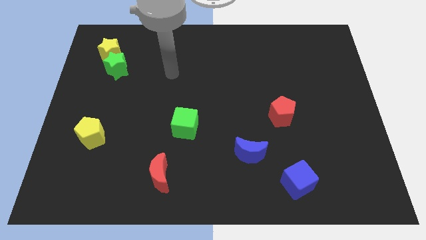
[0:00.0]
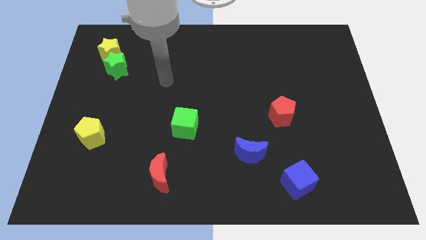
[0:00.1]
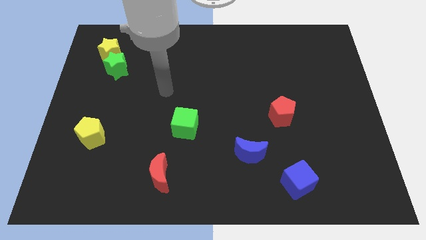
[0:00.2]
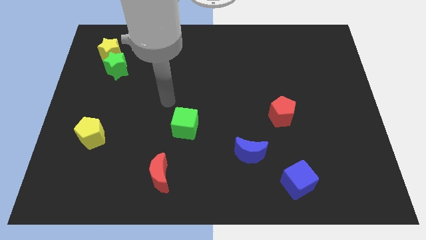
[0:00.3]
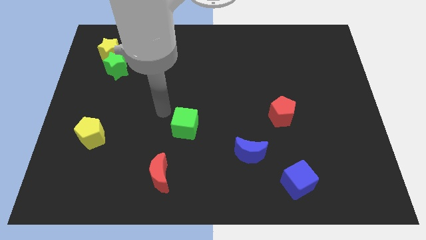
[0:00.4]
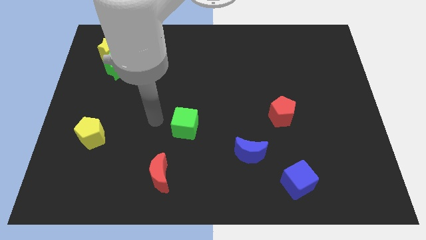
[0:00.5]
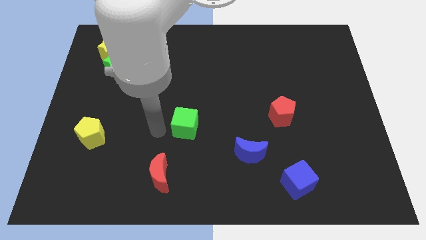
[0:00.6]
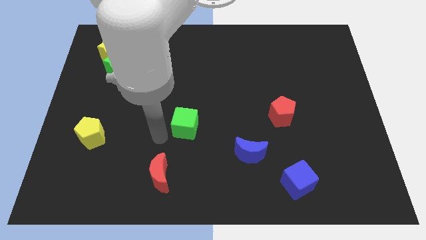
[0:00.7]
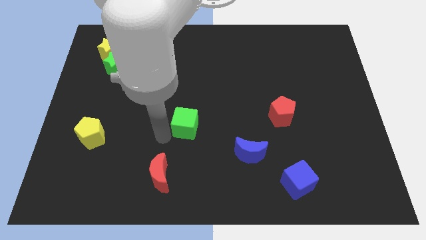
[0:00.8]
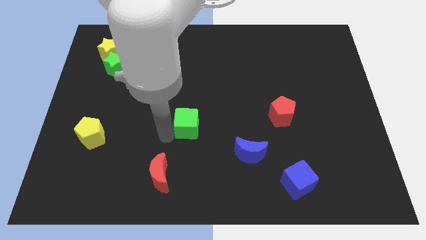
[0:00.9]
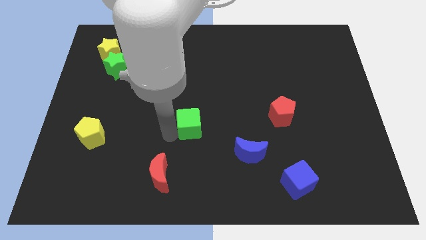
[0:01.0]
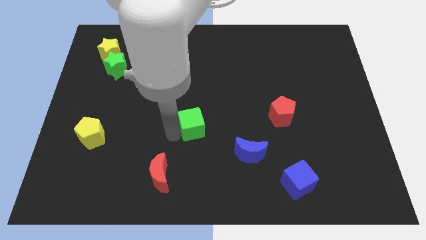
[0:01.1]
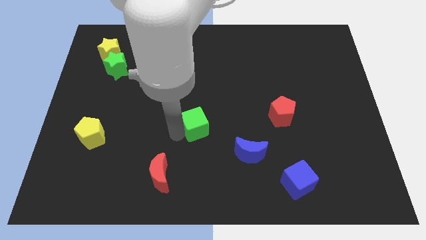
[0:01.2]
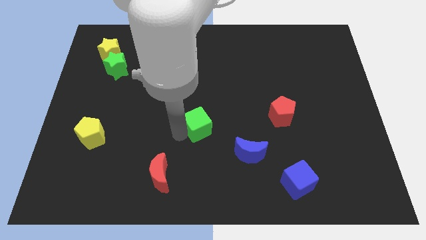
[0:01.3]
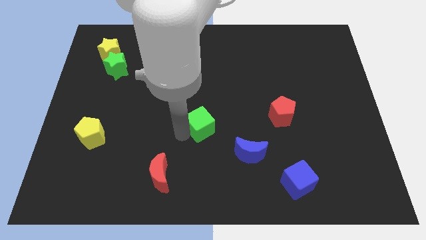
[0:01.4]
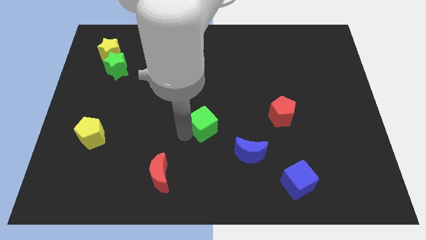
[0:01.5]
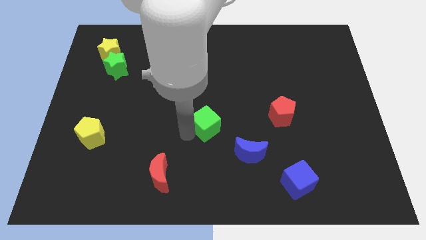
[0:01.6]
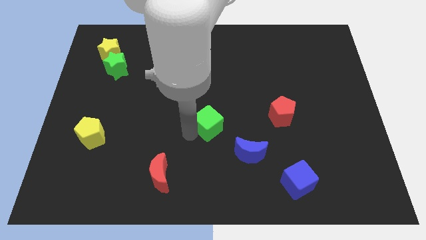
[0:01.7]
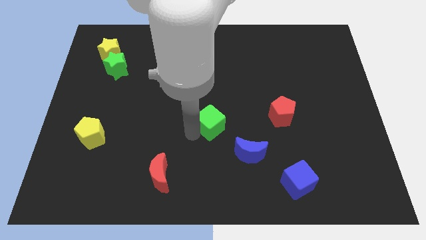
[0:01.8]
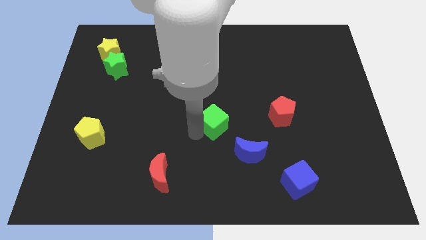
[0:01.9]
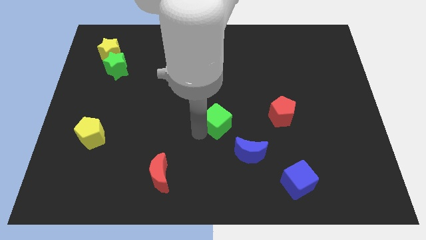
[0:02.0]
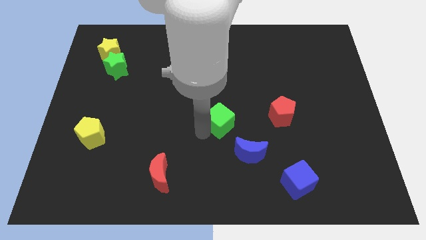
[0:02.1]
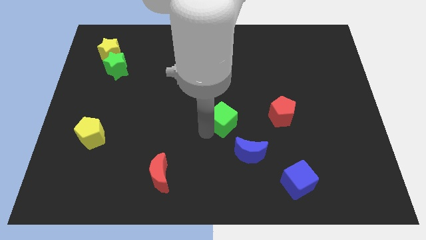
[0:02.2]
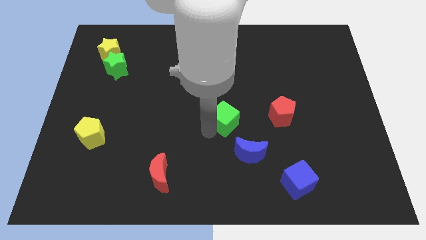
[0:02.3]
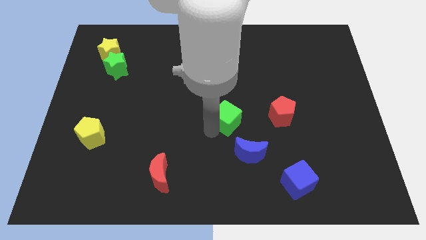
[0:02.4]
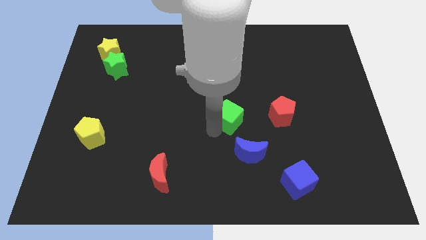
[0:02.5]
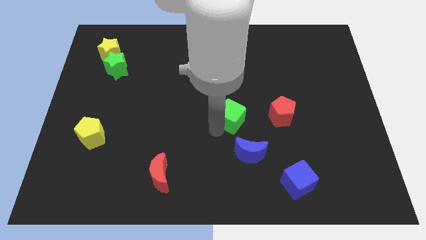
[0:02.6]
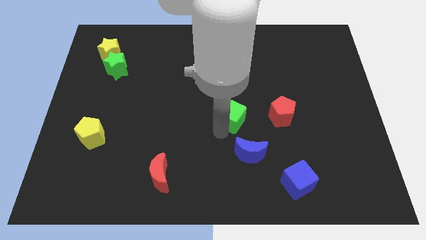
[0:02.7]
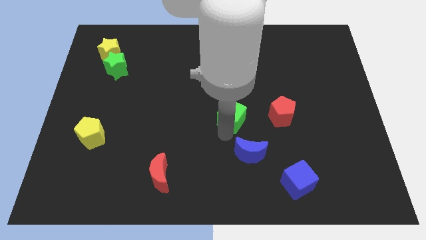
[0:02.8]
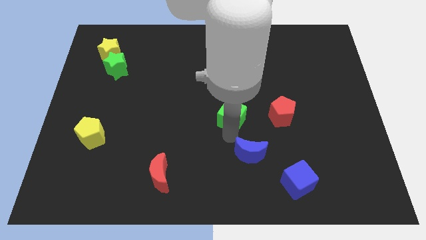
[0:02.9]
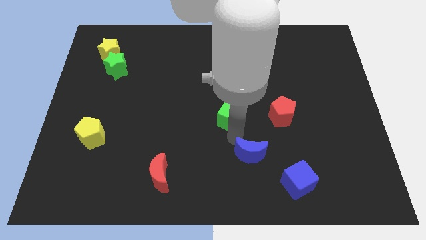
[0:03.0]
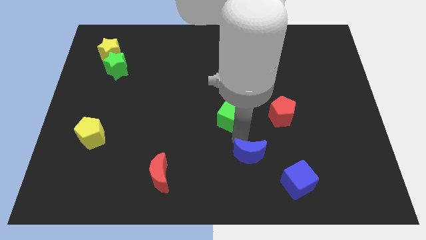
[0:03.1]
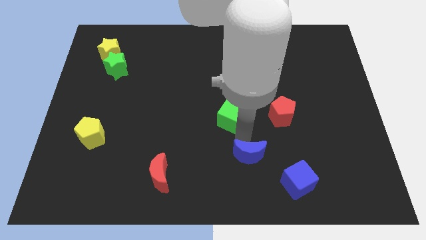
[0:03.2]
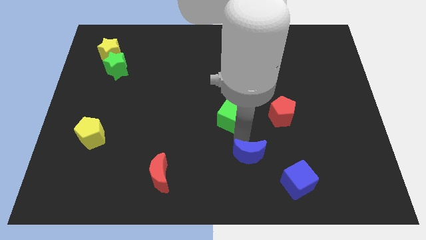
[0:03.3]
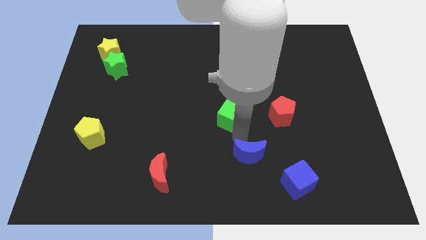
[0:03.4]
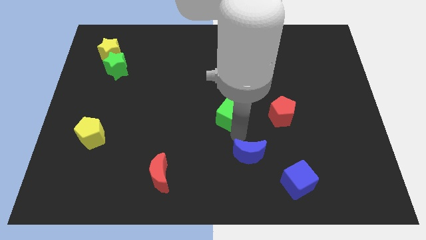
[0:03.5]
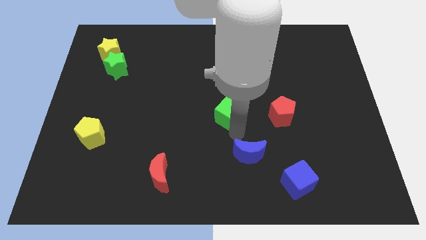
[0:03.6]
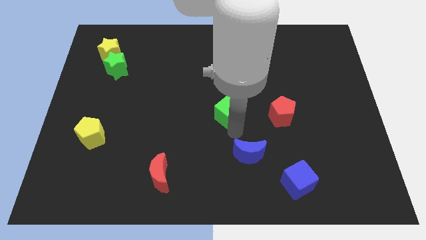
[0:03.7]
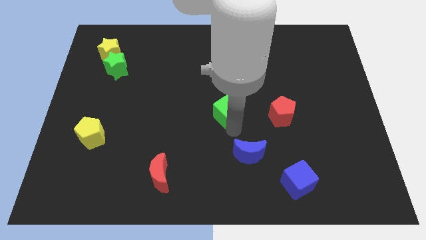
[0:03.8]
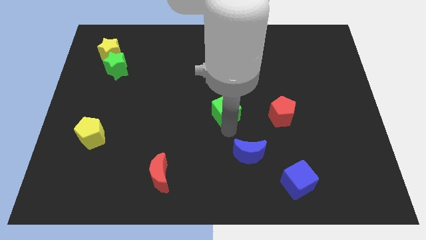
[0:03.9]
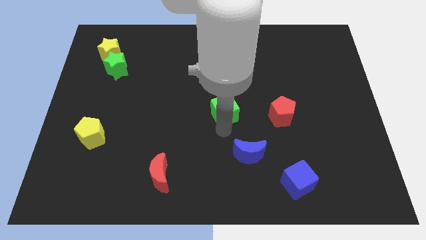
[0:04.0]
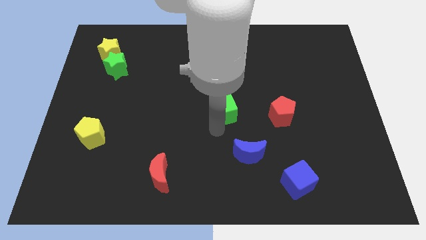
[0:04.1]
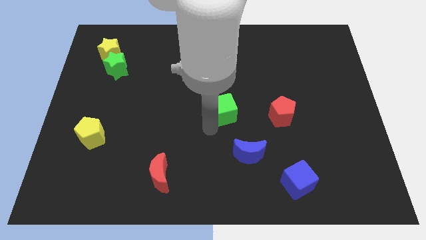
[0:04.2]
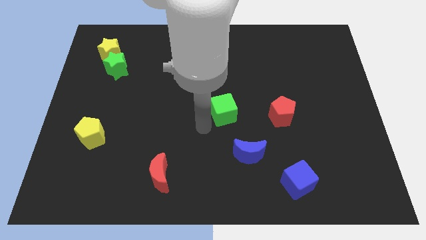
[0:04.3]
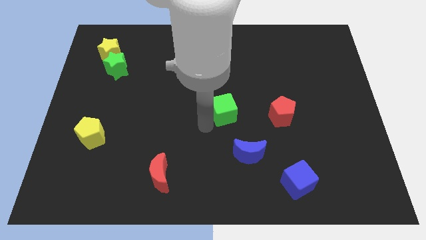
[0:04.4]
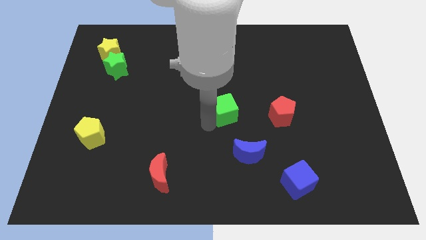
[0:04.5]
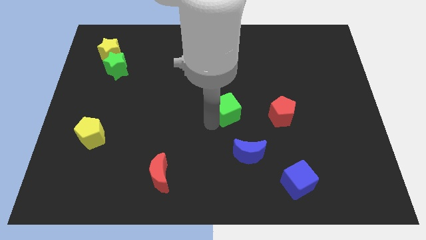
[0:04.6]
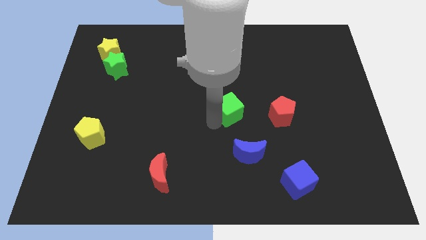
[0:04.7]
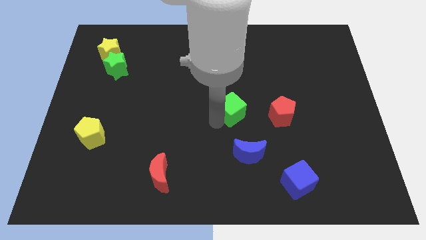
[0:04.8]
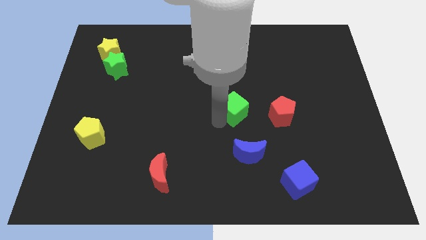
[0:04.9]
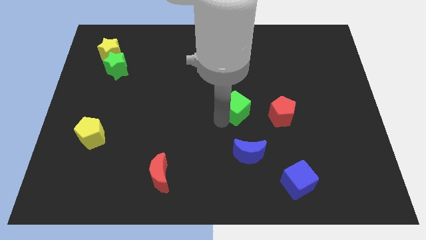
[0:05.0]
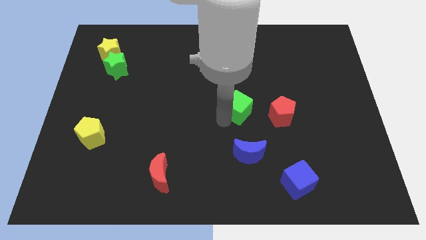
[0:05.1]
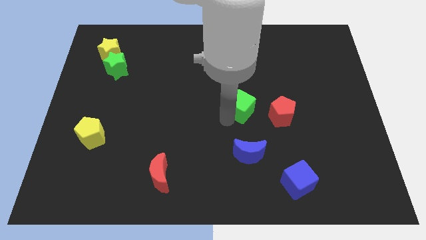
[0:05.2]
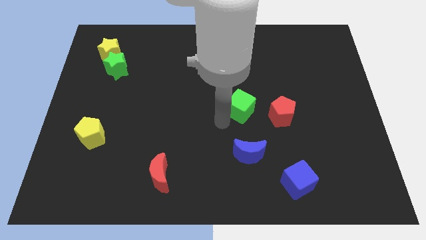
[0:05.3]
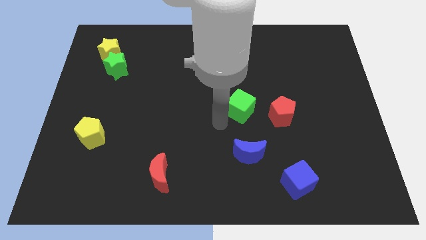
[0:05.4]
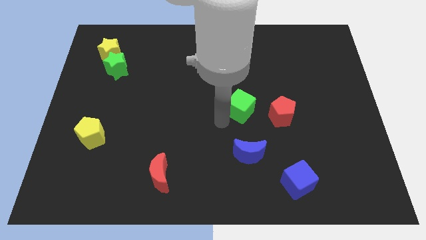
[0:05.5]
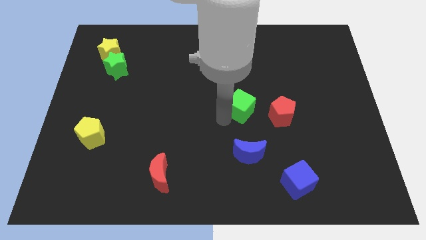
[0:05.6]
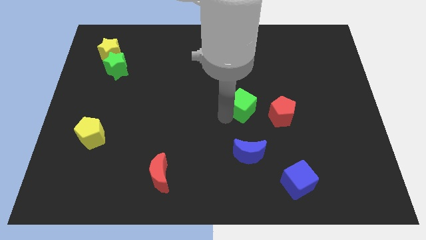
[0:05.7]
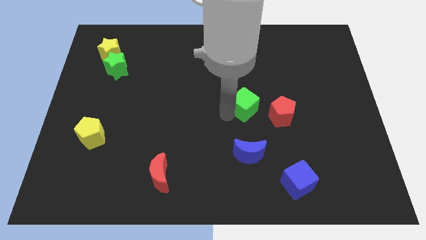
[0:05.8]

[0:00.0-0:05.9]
move the green cube to the top left of the red pentagon
